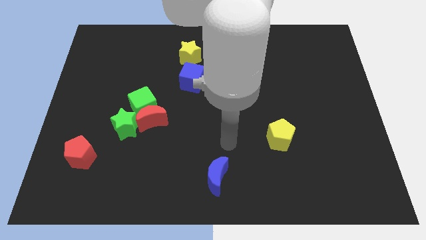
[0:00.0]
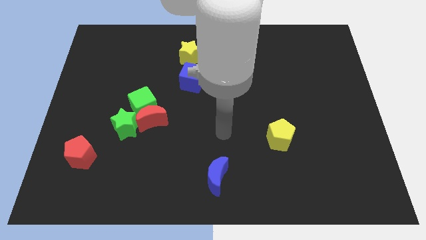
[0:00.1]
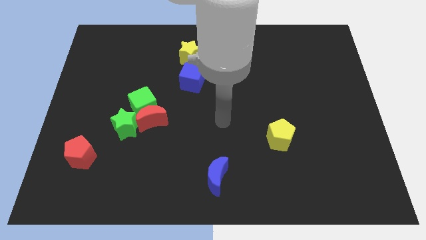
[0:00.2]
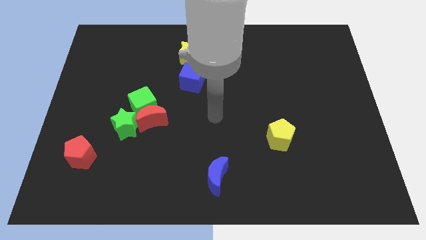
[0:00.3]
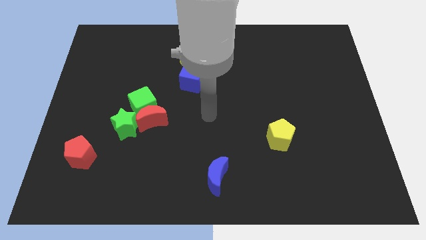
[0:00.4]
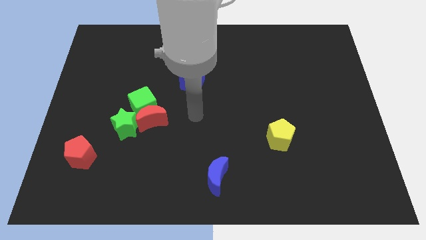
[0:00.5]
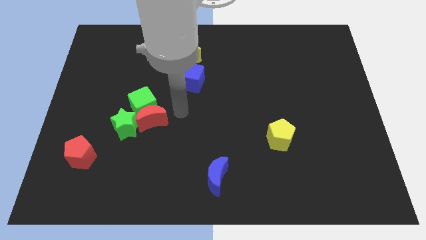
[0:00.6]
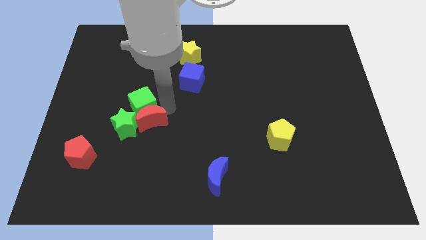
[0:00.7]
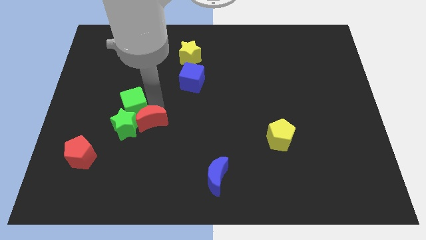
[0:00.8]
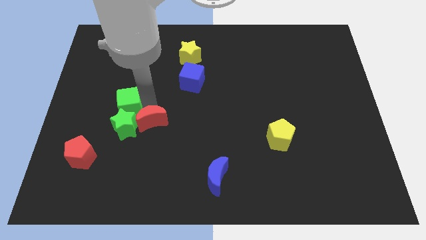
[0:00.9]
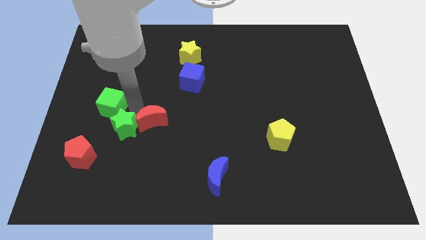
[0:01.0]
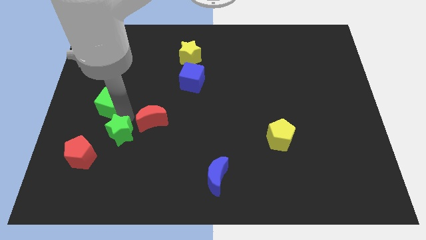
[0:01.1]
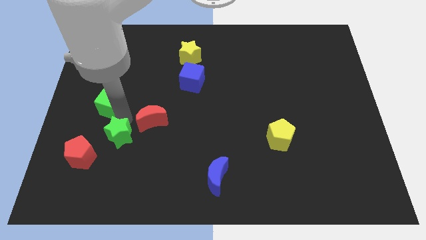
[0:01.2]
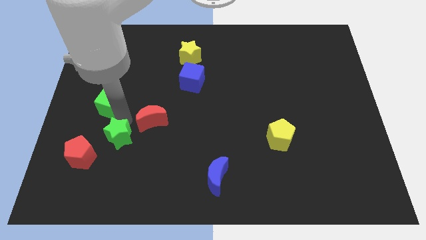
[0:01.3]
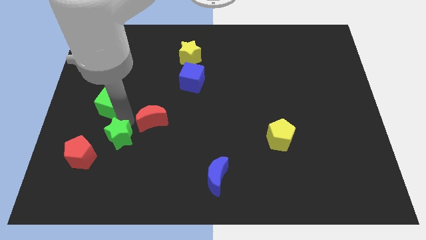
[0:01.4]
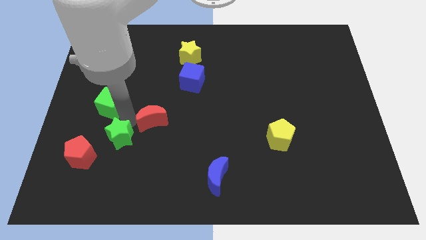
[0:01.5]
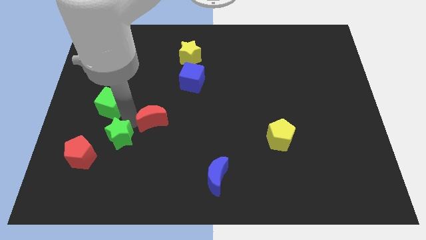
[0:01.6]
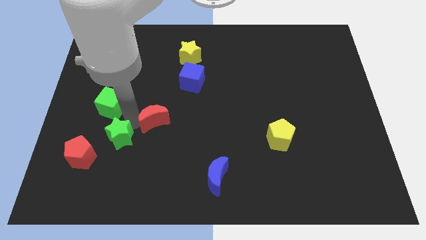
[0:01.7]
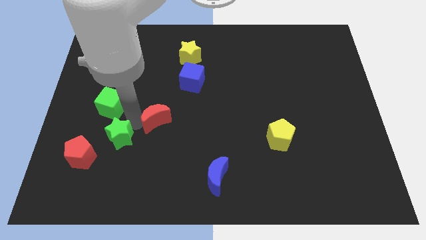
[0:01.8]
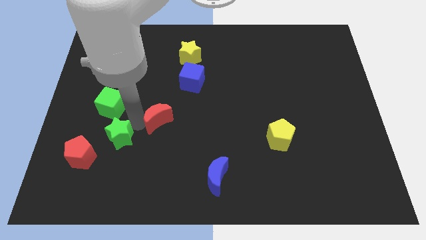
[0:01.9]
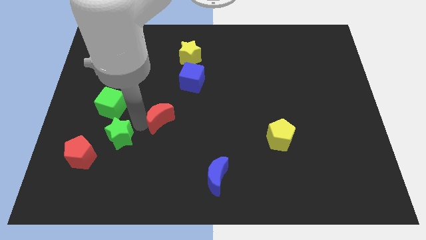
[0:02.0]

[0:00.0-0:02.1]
pull the red moon apart from the green cube and green star

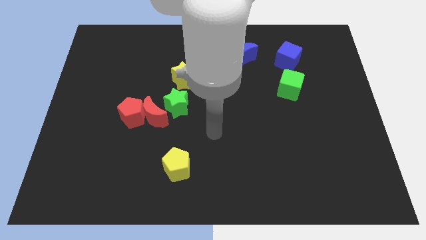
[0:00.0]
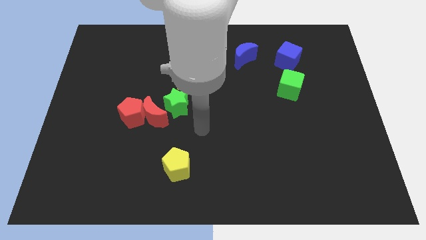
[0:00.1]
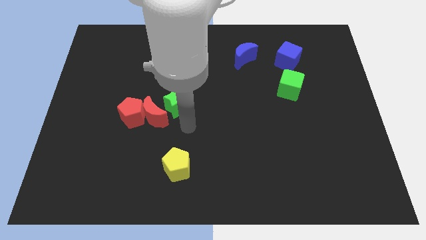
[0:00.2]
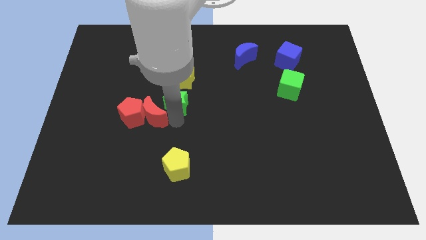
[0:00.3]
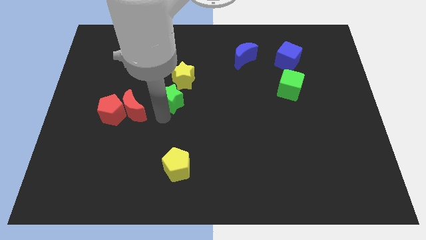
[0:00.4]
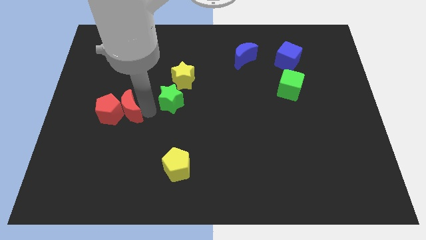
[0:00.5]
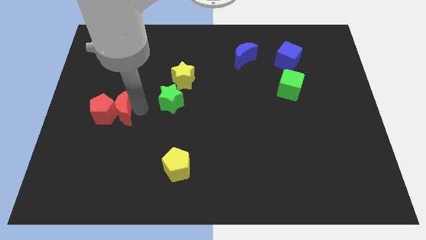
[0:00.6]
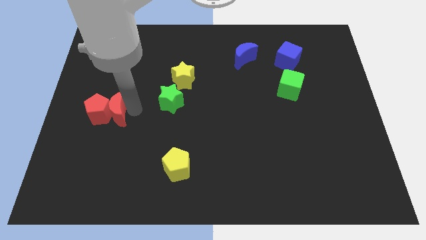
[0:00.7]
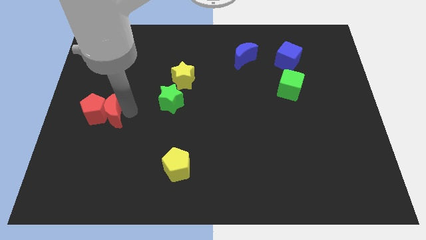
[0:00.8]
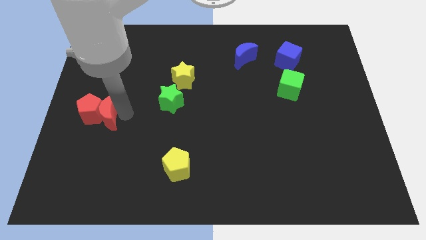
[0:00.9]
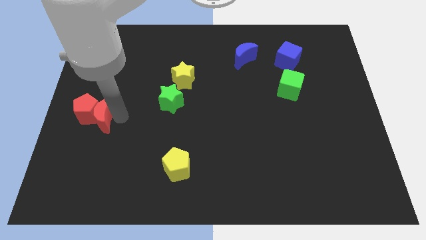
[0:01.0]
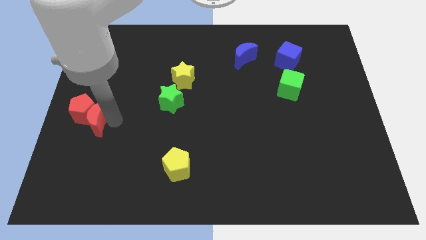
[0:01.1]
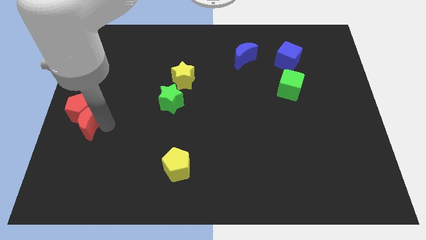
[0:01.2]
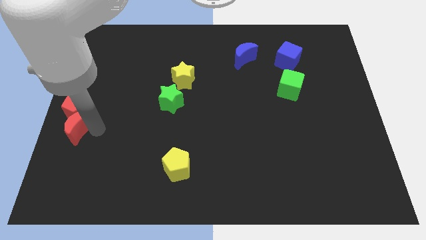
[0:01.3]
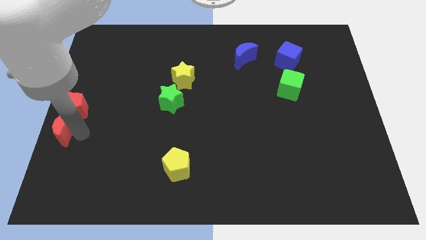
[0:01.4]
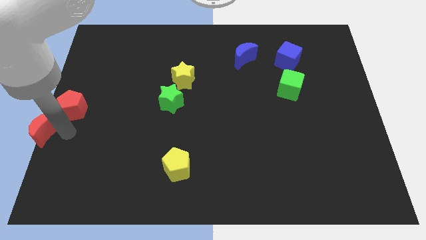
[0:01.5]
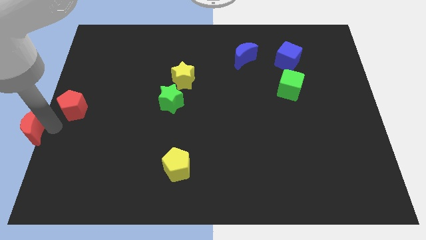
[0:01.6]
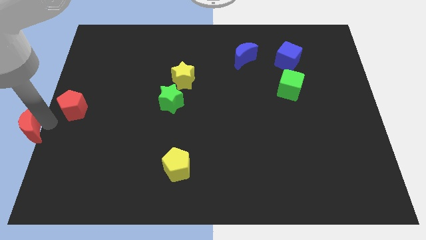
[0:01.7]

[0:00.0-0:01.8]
pull the red pentagon apart from the red moon

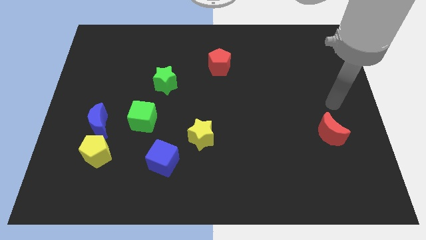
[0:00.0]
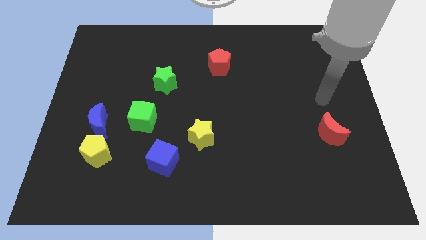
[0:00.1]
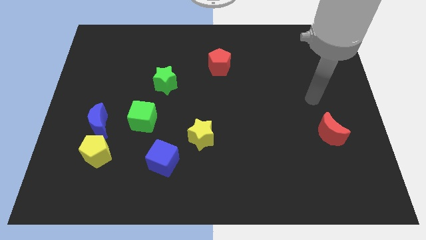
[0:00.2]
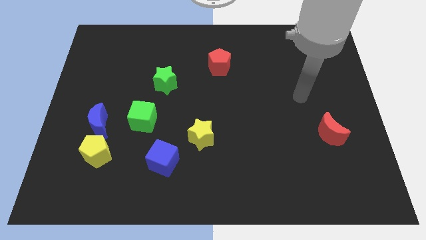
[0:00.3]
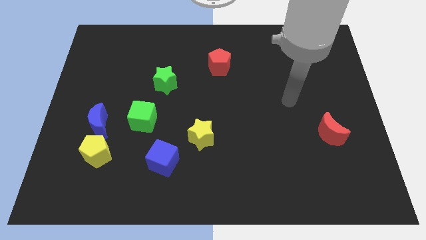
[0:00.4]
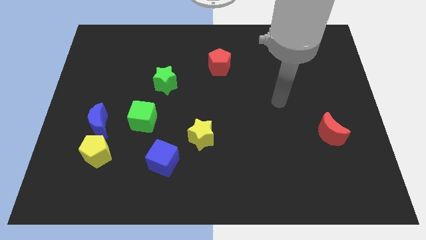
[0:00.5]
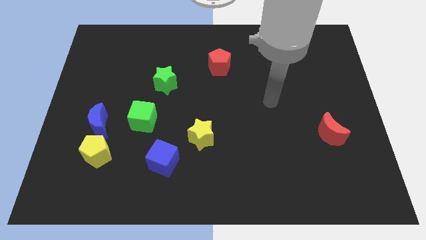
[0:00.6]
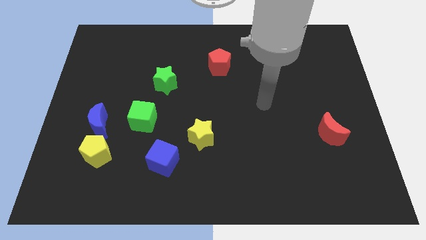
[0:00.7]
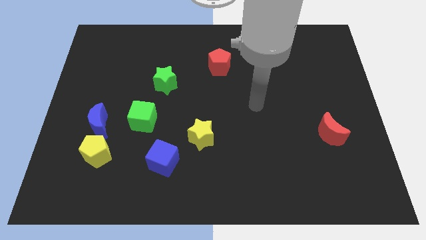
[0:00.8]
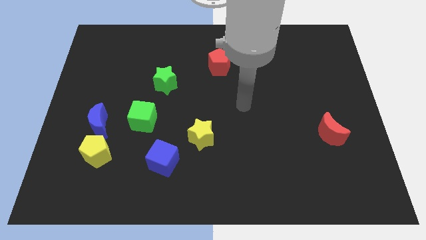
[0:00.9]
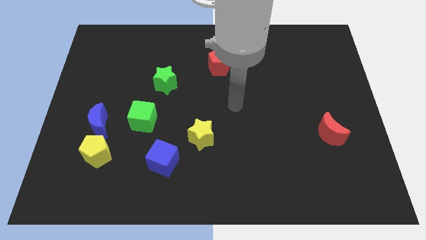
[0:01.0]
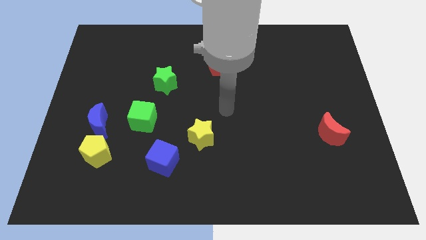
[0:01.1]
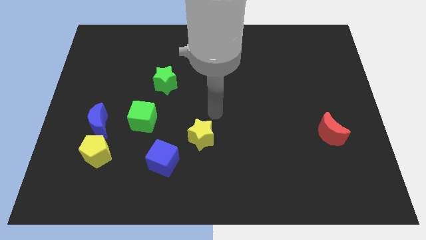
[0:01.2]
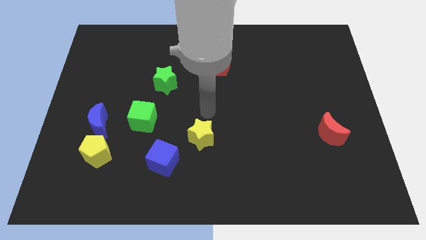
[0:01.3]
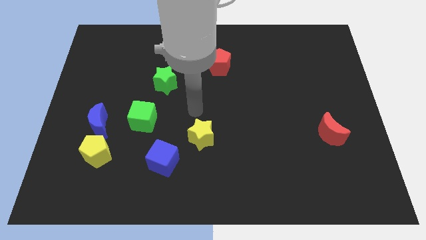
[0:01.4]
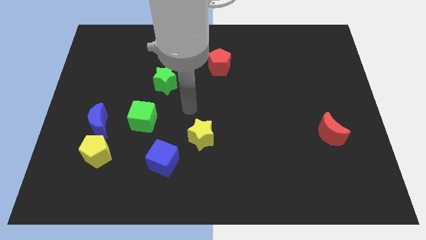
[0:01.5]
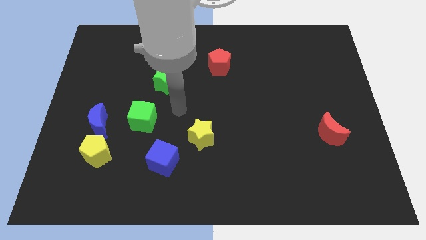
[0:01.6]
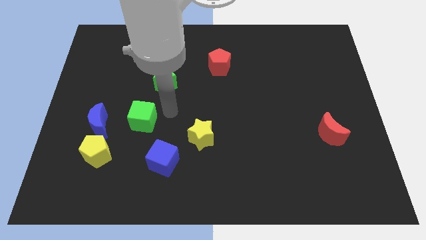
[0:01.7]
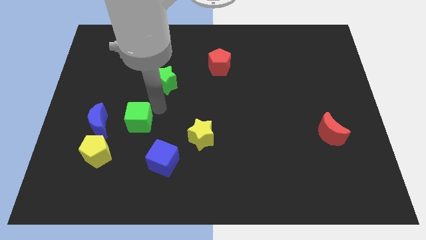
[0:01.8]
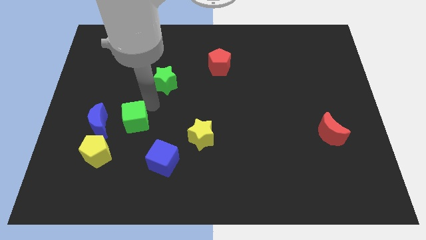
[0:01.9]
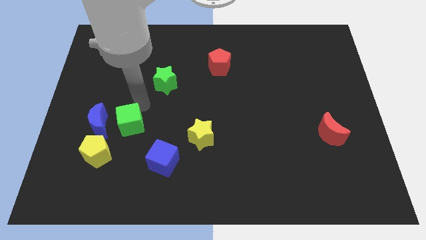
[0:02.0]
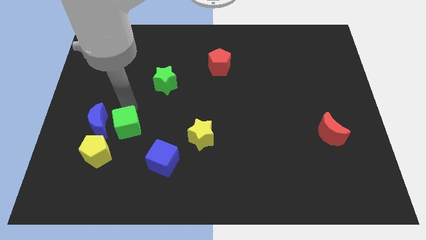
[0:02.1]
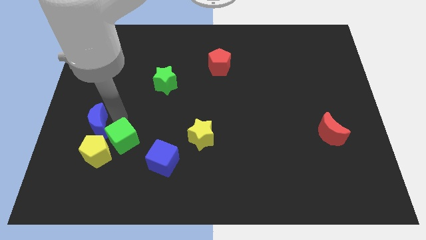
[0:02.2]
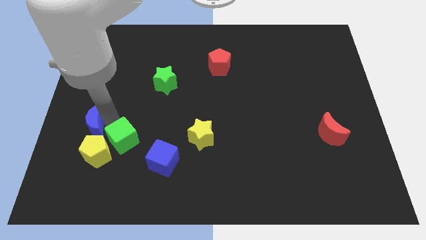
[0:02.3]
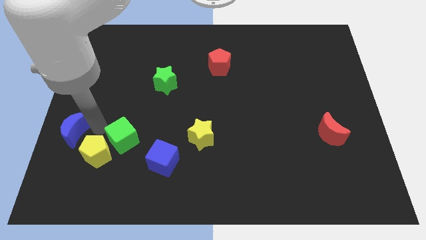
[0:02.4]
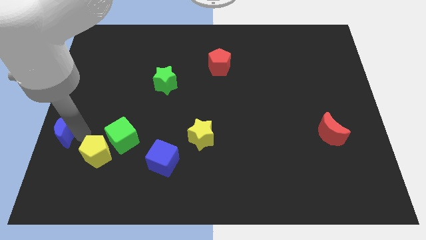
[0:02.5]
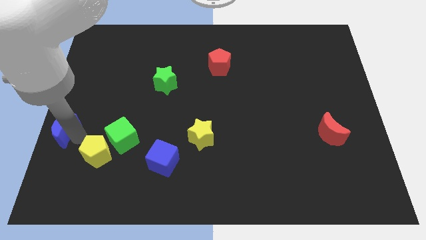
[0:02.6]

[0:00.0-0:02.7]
move the yellow pentagon away from the blue moon

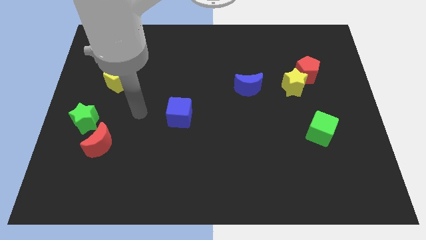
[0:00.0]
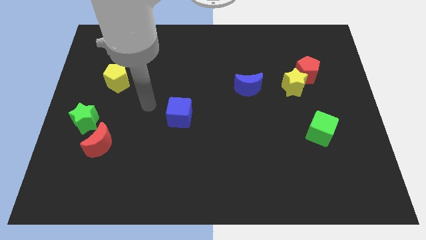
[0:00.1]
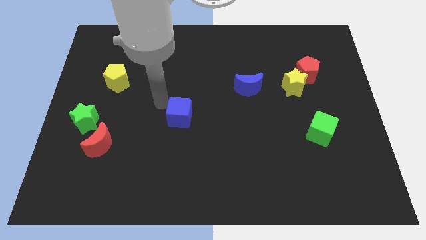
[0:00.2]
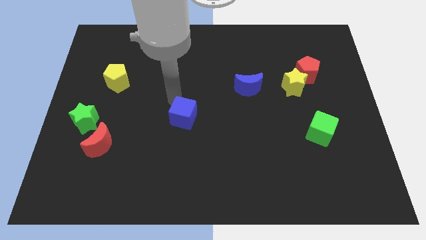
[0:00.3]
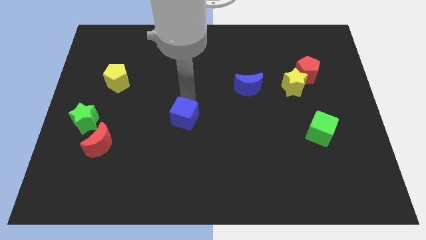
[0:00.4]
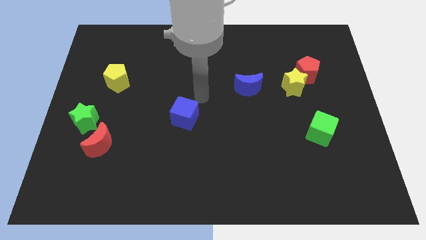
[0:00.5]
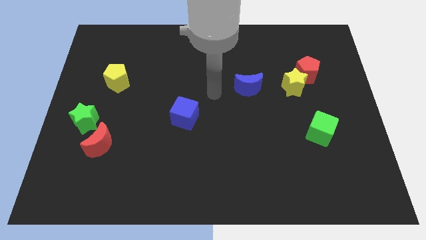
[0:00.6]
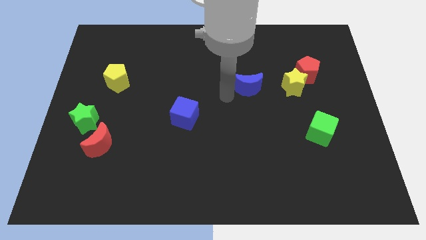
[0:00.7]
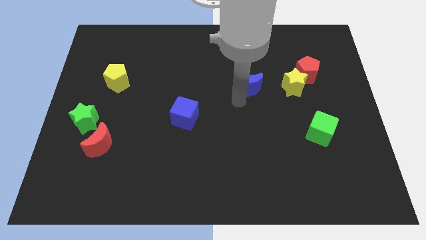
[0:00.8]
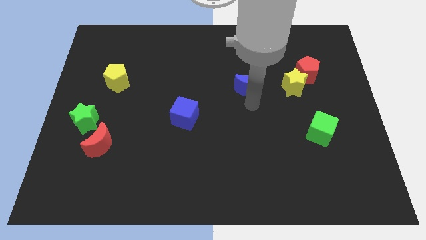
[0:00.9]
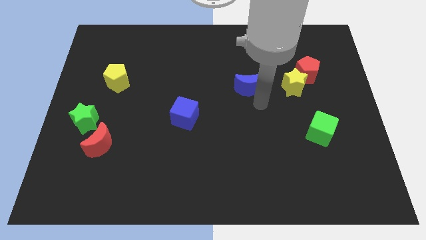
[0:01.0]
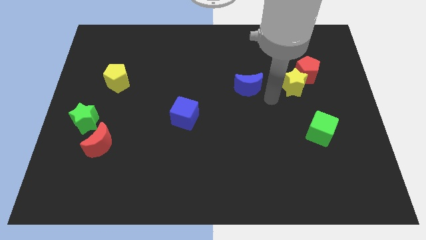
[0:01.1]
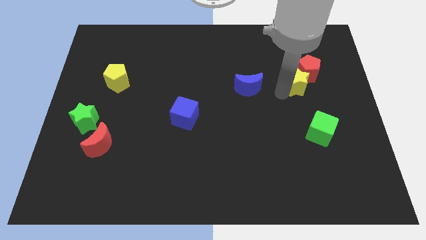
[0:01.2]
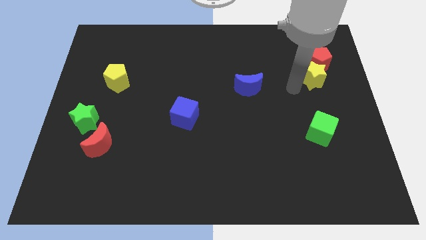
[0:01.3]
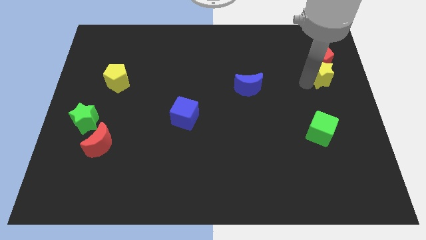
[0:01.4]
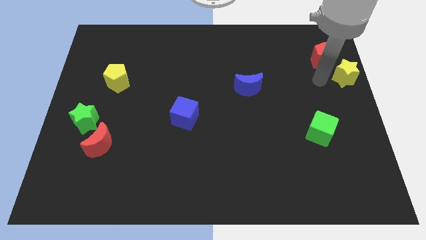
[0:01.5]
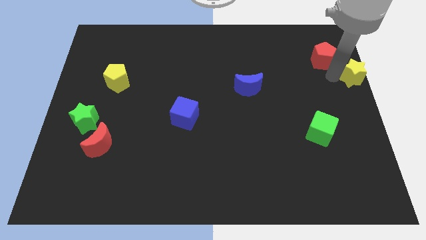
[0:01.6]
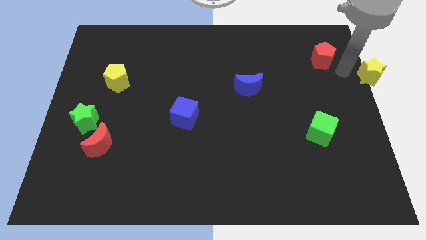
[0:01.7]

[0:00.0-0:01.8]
pull the red pentagon apart from the yellow star

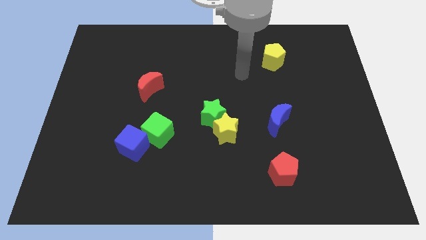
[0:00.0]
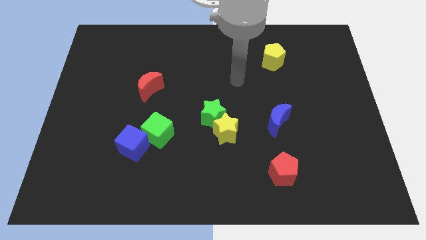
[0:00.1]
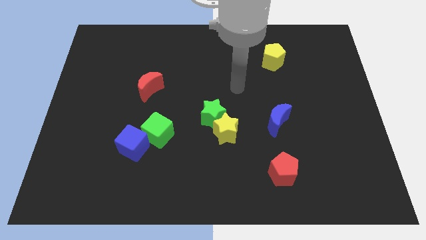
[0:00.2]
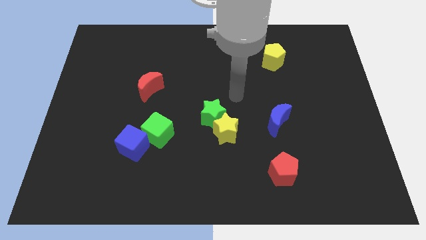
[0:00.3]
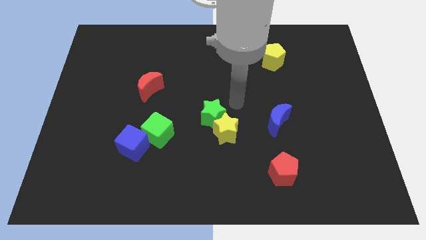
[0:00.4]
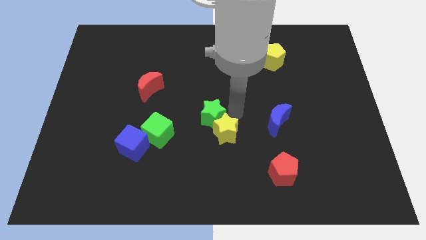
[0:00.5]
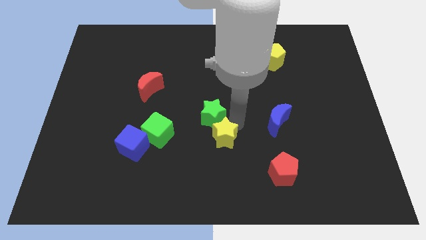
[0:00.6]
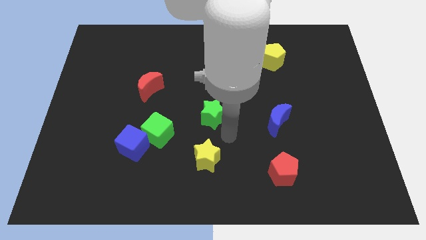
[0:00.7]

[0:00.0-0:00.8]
separate the green star from the yellow star

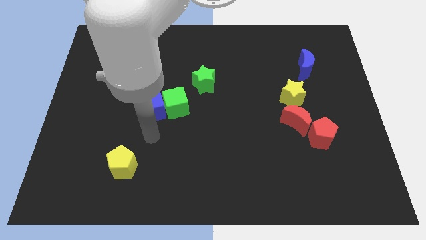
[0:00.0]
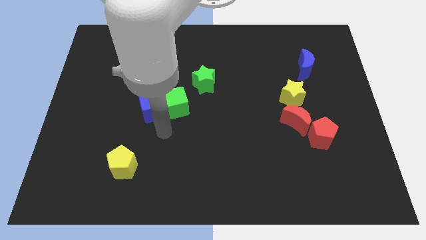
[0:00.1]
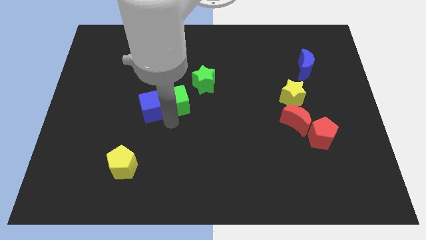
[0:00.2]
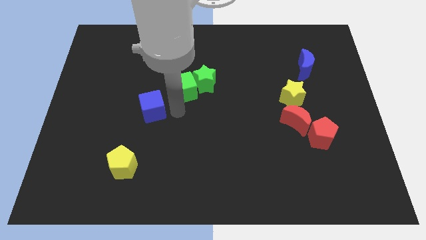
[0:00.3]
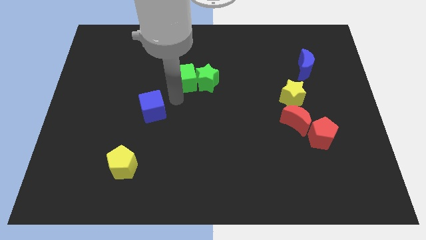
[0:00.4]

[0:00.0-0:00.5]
separate the blue cube from the green cube
